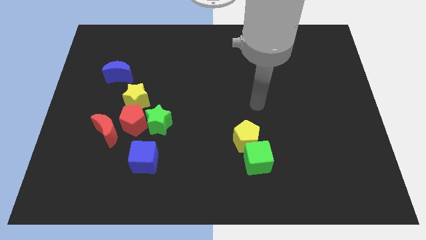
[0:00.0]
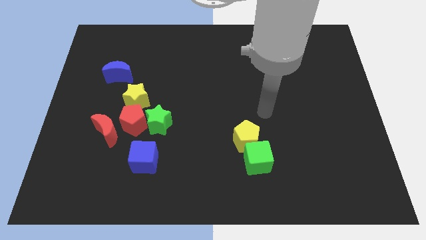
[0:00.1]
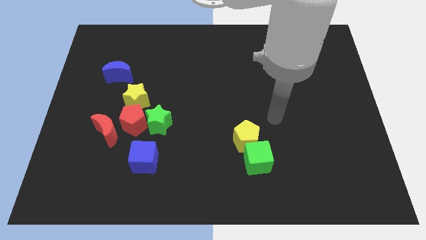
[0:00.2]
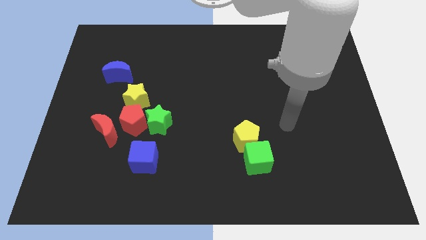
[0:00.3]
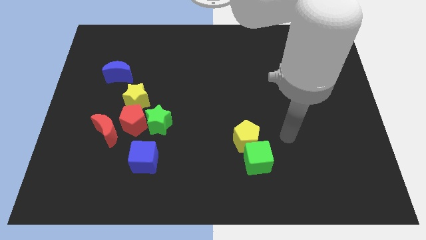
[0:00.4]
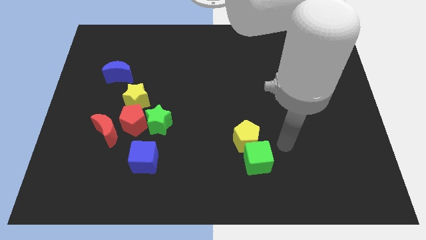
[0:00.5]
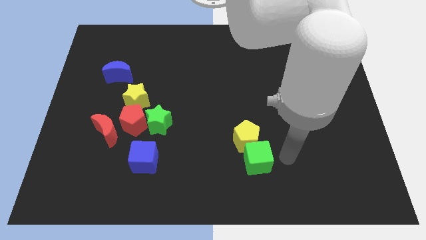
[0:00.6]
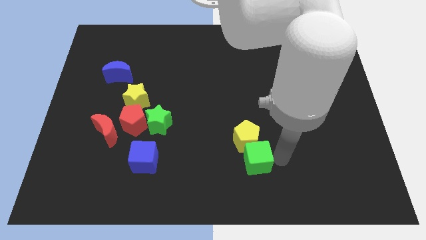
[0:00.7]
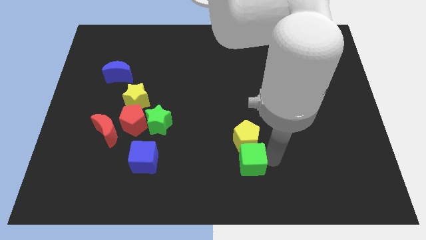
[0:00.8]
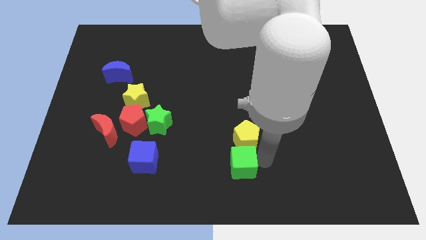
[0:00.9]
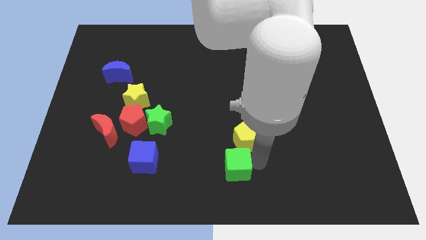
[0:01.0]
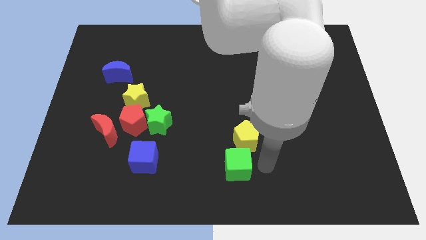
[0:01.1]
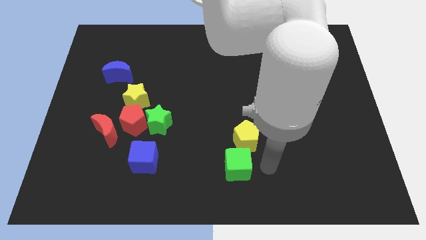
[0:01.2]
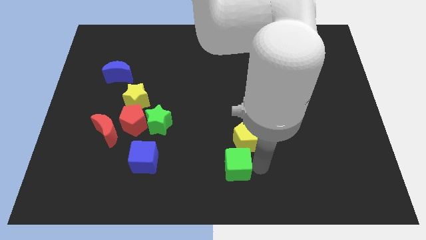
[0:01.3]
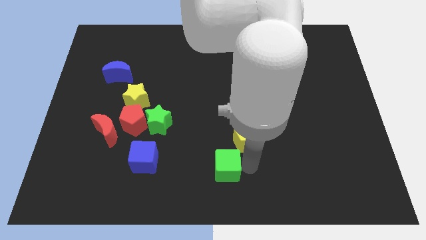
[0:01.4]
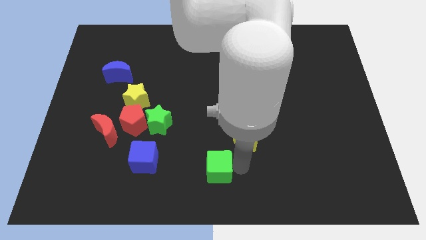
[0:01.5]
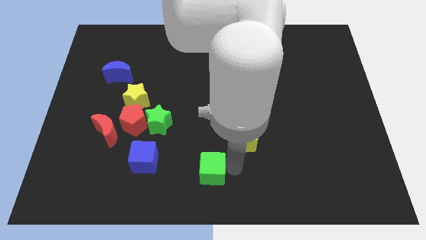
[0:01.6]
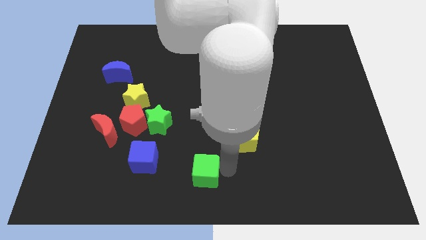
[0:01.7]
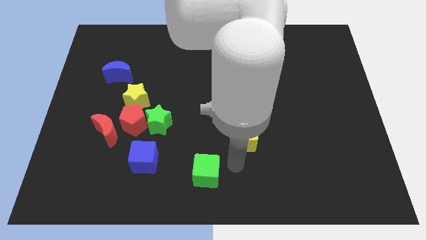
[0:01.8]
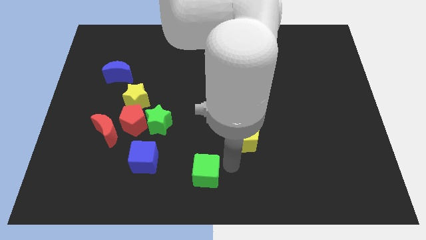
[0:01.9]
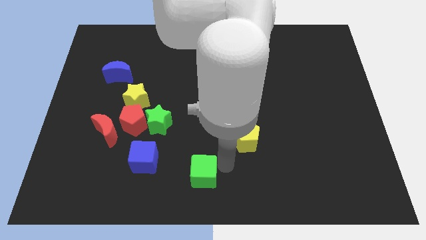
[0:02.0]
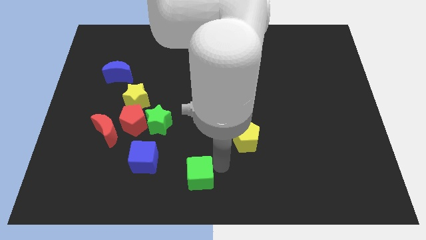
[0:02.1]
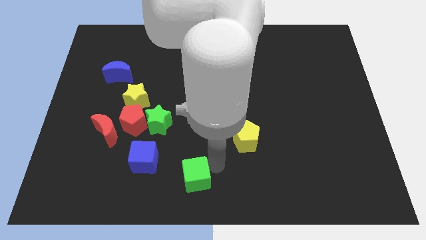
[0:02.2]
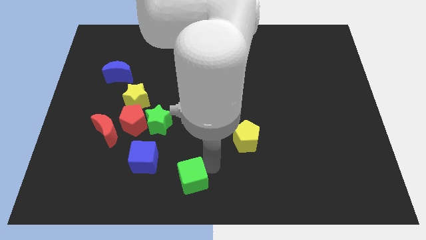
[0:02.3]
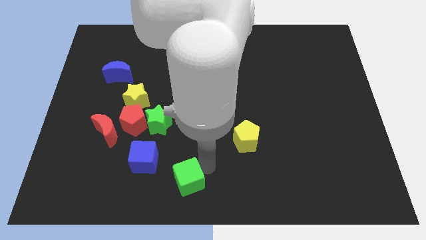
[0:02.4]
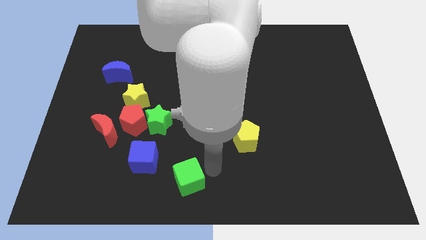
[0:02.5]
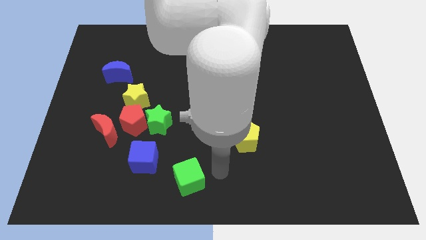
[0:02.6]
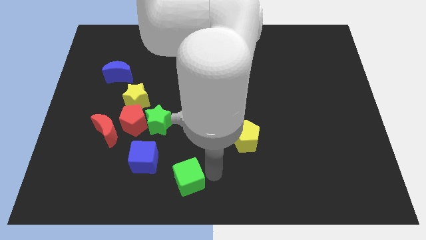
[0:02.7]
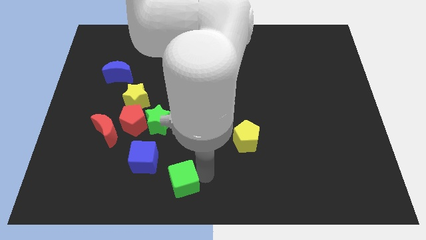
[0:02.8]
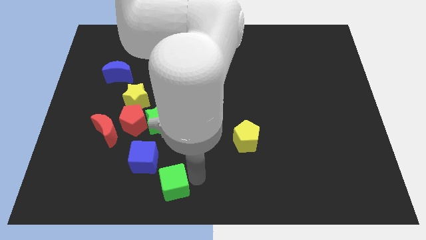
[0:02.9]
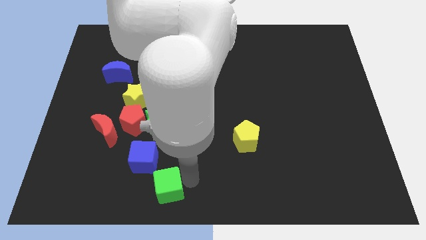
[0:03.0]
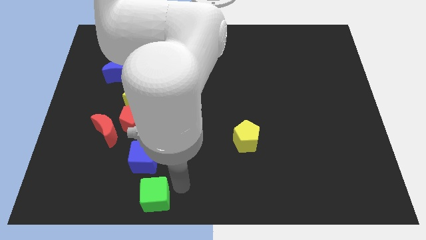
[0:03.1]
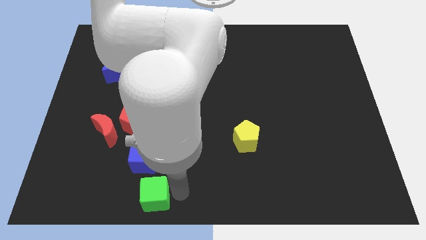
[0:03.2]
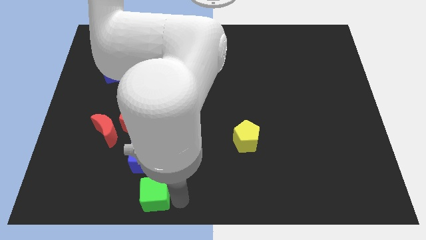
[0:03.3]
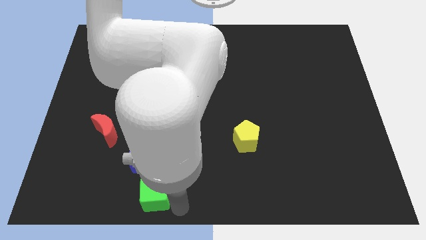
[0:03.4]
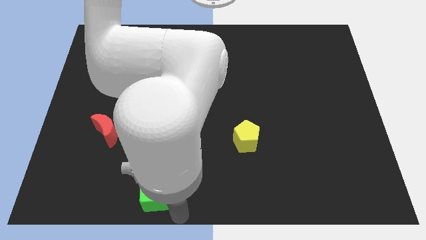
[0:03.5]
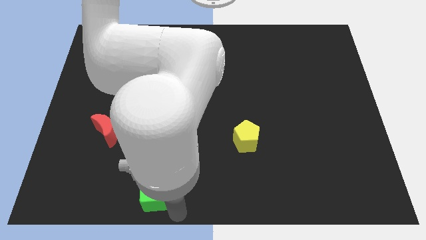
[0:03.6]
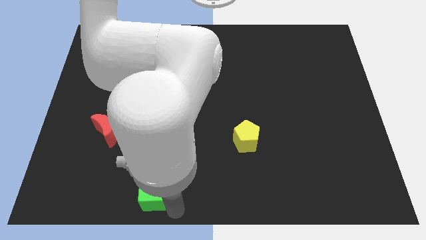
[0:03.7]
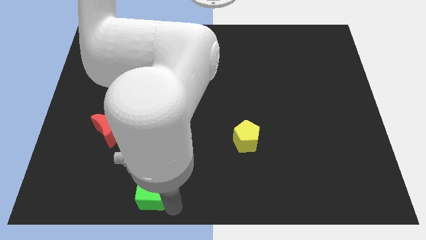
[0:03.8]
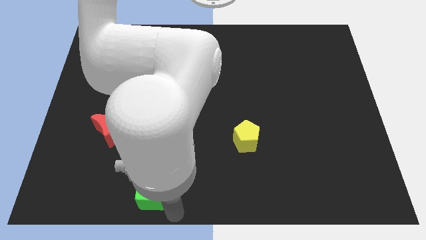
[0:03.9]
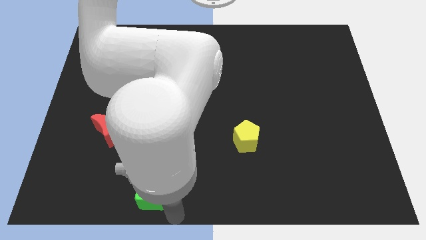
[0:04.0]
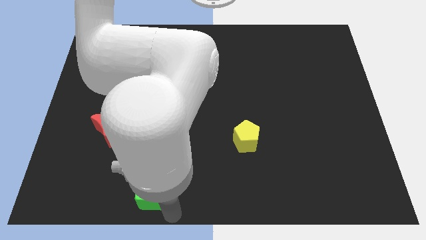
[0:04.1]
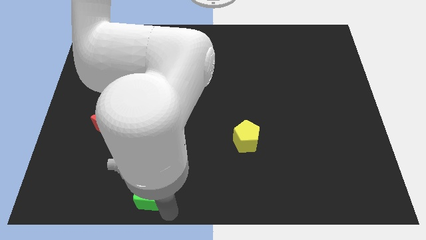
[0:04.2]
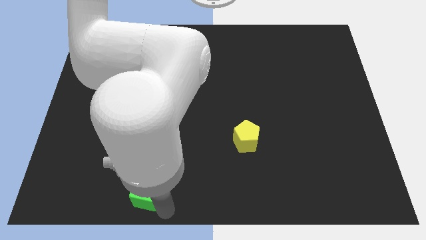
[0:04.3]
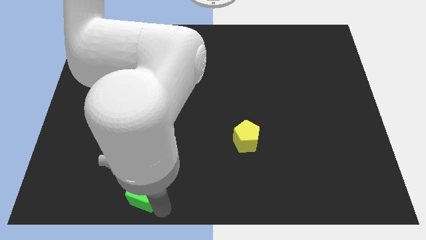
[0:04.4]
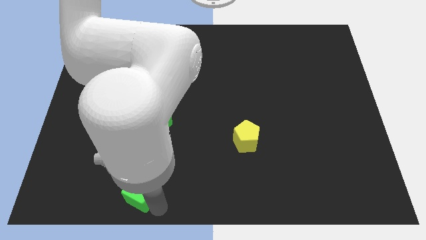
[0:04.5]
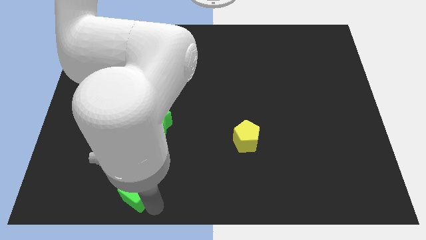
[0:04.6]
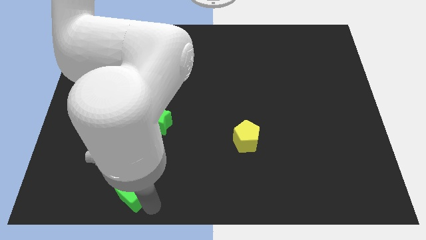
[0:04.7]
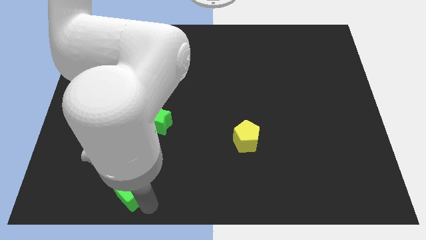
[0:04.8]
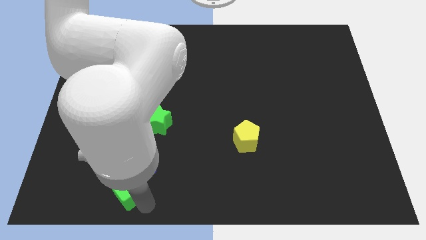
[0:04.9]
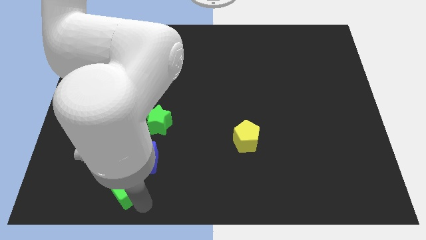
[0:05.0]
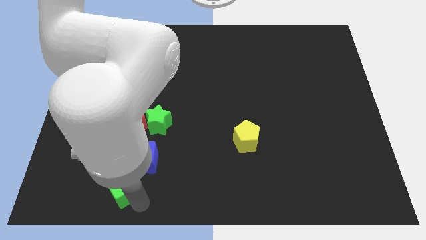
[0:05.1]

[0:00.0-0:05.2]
slide the green cube to the bottom of the red pentagon
